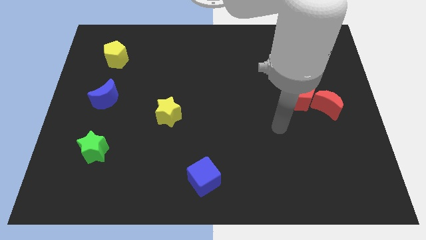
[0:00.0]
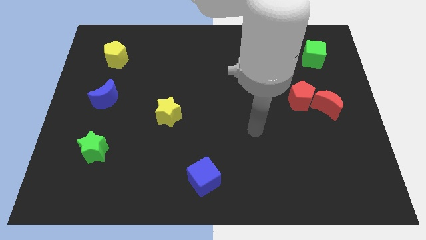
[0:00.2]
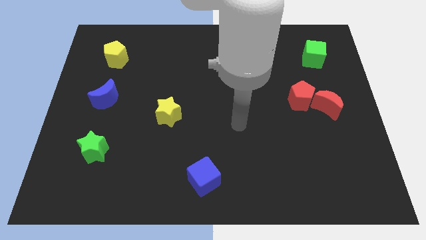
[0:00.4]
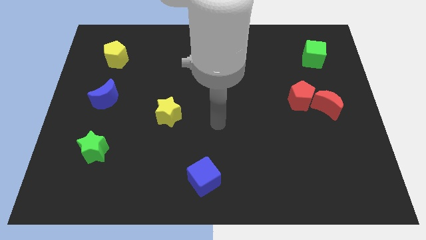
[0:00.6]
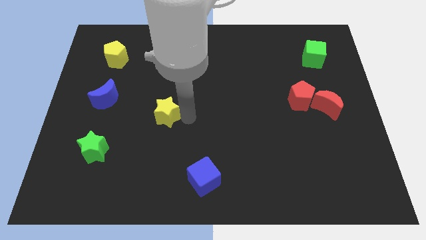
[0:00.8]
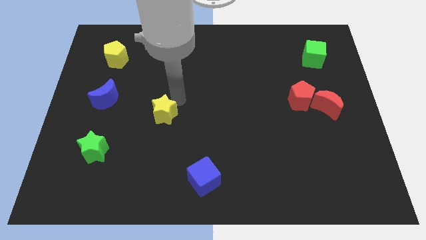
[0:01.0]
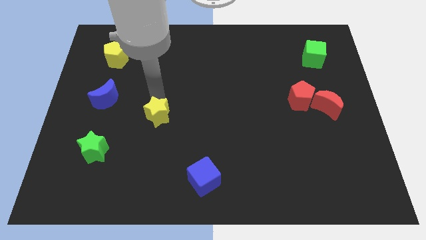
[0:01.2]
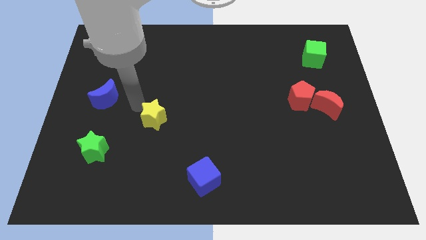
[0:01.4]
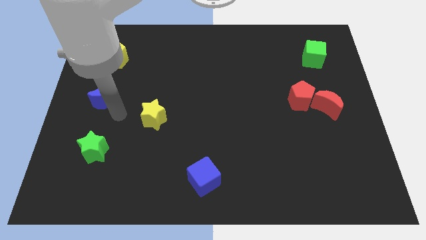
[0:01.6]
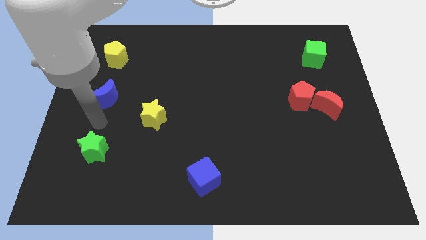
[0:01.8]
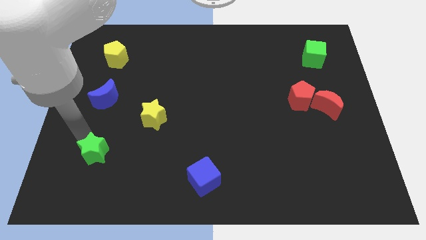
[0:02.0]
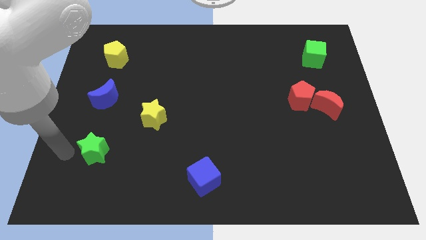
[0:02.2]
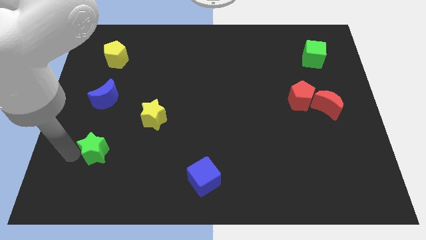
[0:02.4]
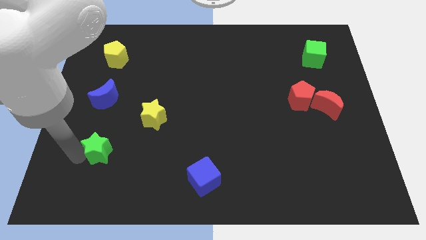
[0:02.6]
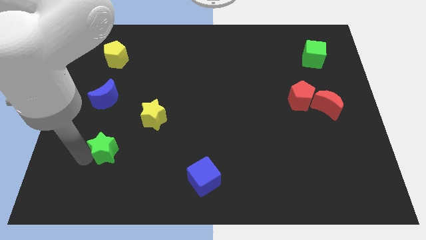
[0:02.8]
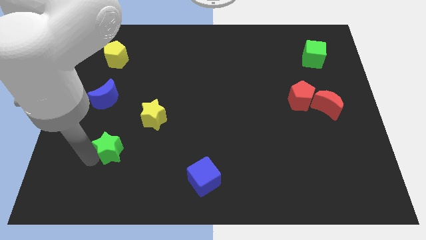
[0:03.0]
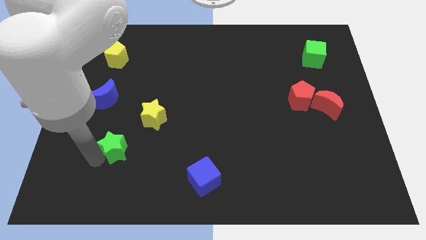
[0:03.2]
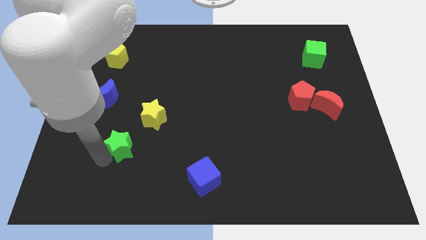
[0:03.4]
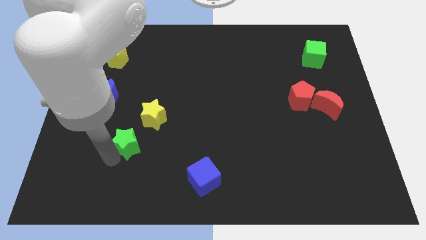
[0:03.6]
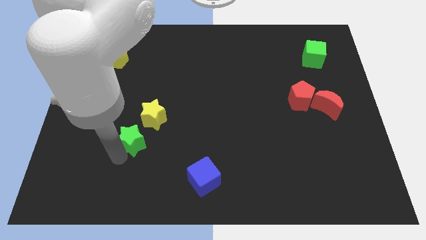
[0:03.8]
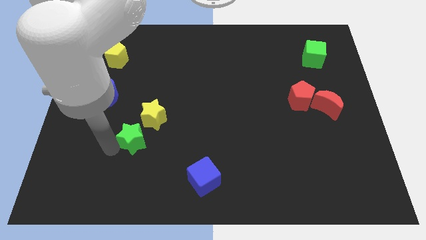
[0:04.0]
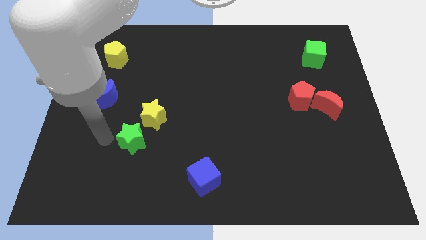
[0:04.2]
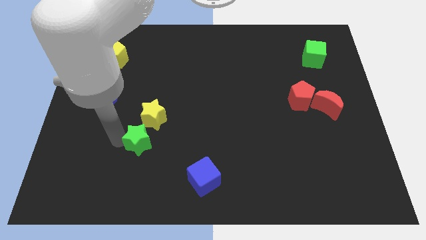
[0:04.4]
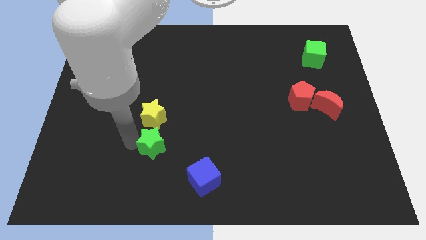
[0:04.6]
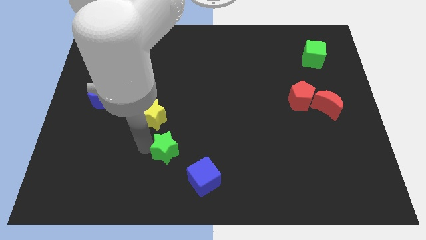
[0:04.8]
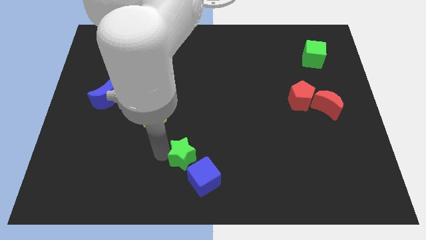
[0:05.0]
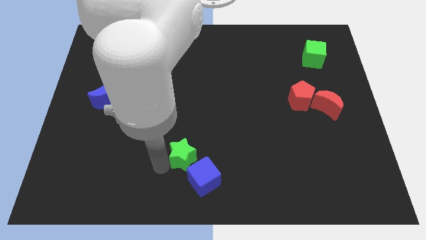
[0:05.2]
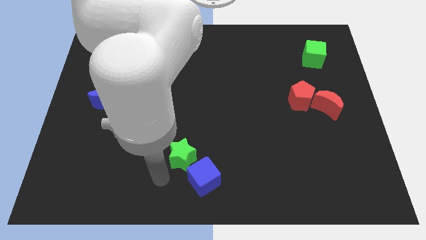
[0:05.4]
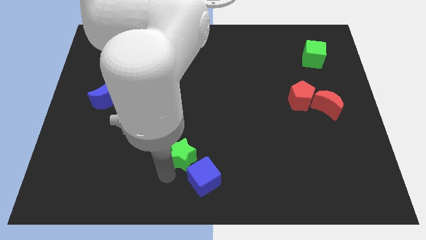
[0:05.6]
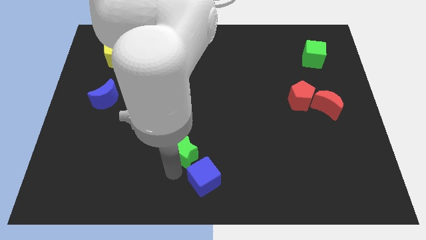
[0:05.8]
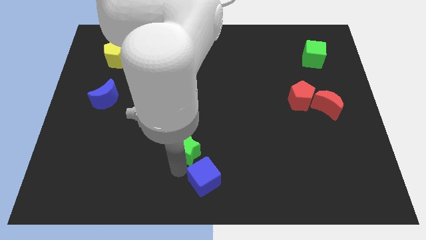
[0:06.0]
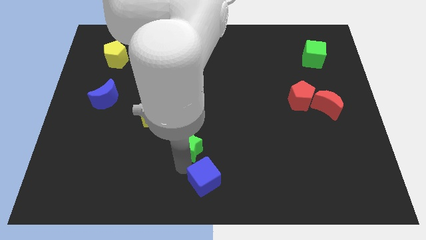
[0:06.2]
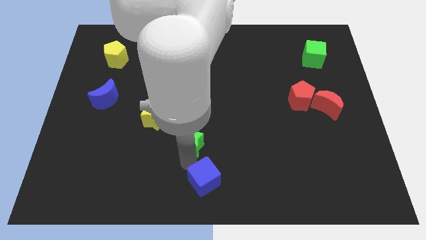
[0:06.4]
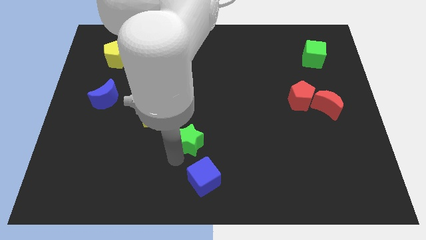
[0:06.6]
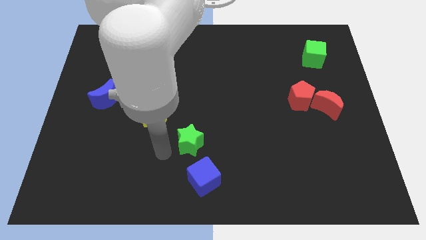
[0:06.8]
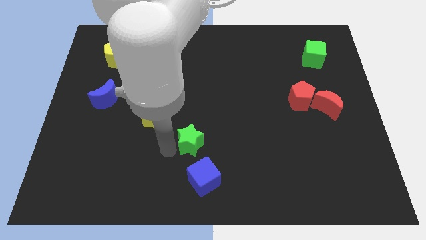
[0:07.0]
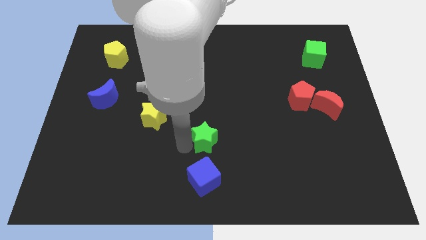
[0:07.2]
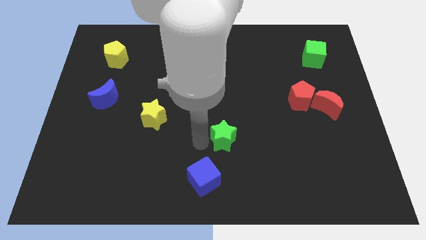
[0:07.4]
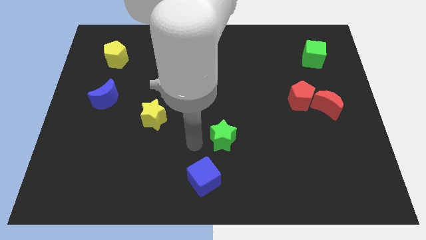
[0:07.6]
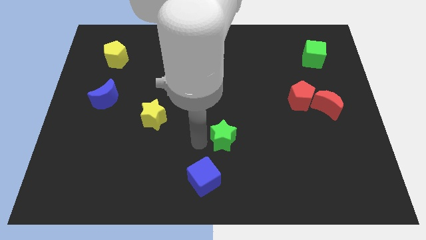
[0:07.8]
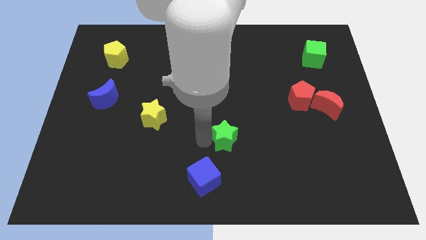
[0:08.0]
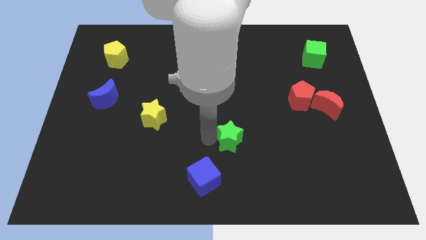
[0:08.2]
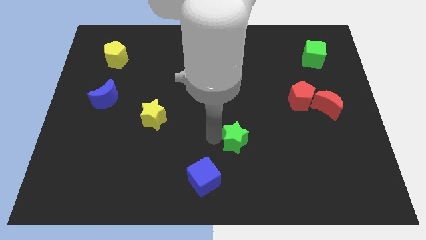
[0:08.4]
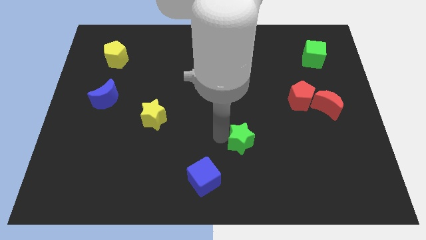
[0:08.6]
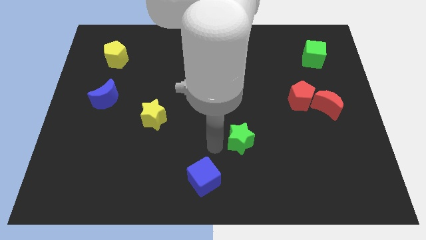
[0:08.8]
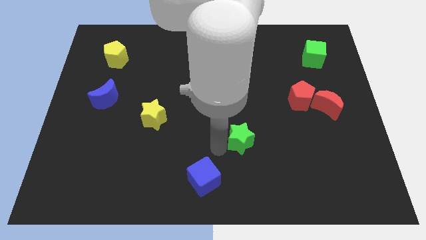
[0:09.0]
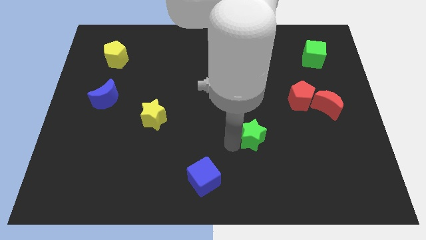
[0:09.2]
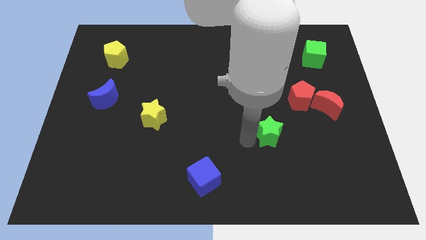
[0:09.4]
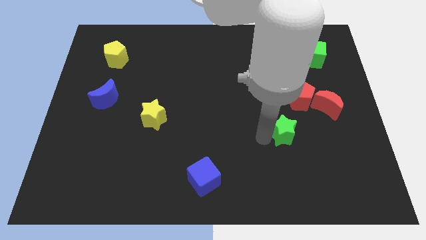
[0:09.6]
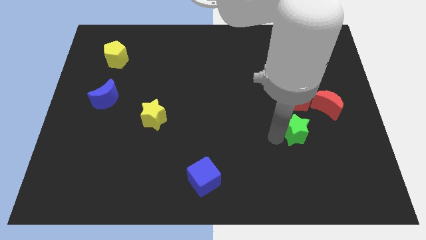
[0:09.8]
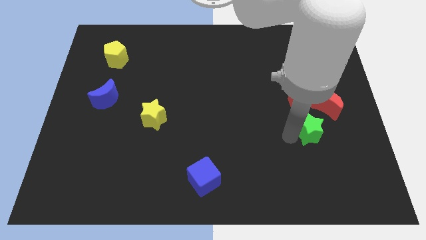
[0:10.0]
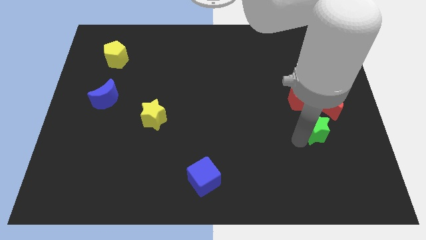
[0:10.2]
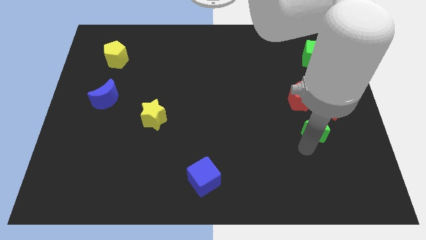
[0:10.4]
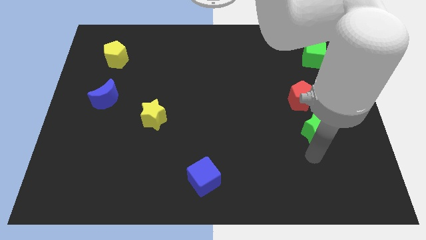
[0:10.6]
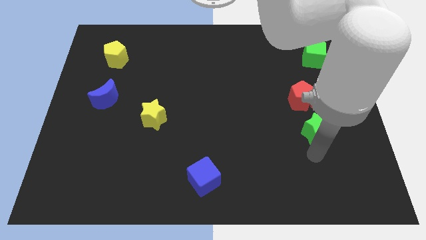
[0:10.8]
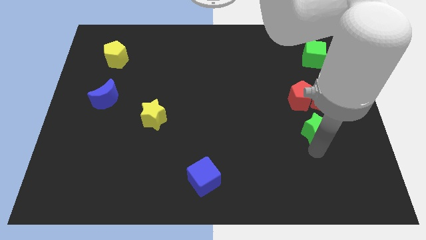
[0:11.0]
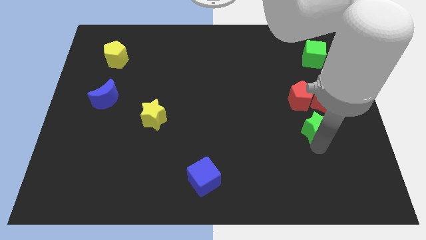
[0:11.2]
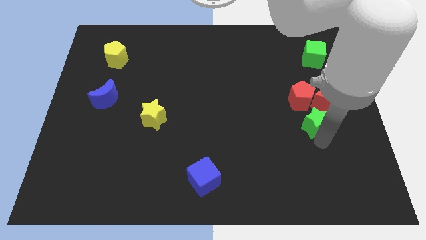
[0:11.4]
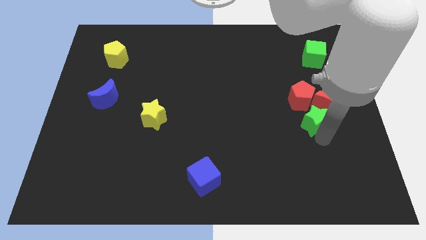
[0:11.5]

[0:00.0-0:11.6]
move the green star next to the red moon
